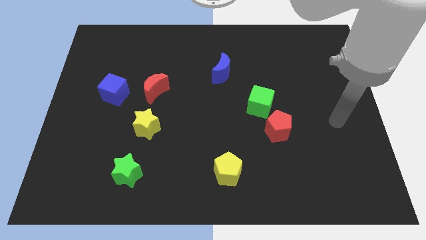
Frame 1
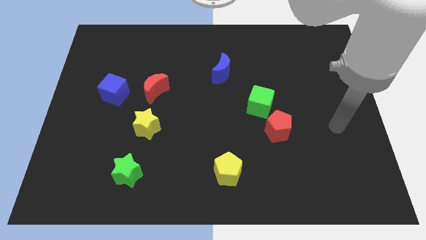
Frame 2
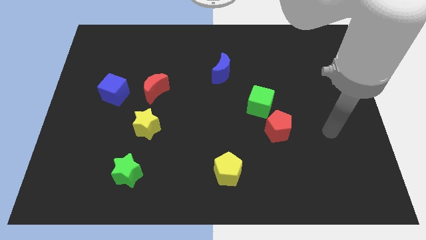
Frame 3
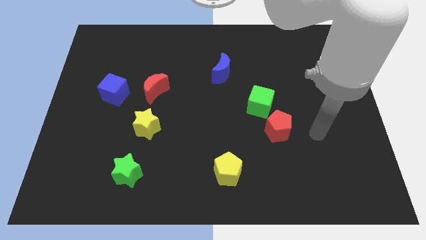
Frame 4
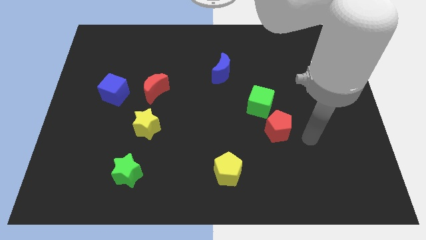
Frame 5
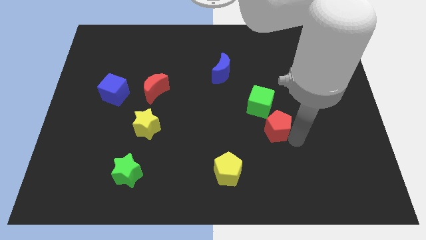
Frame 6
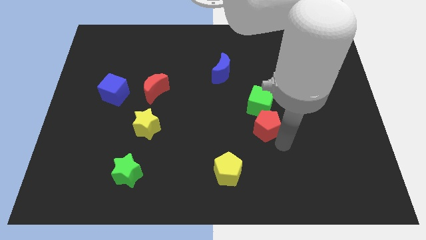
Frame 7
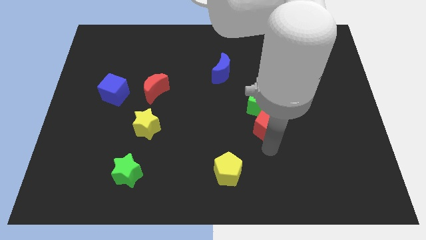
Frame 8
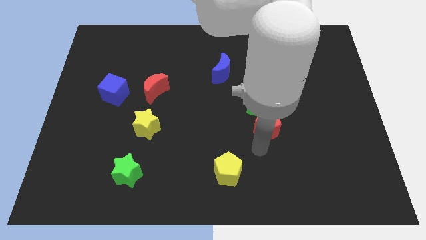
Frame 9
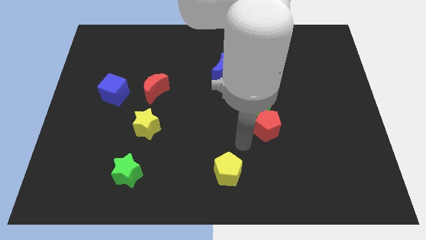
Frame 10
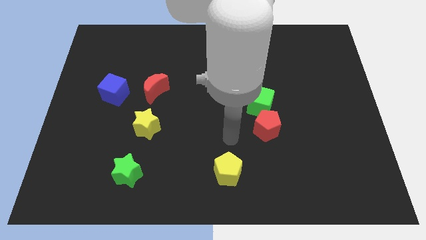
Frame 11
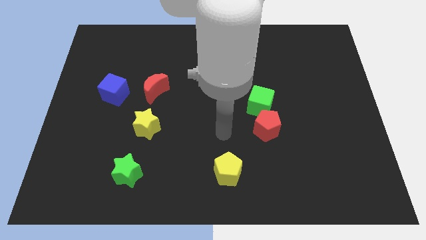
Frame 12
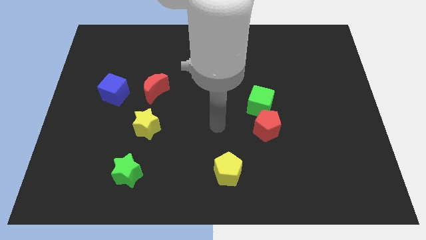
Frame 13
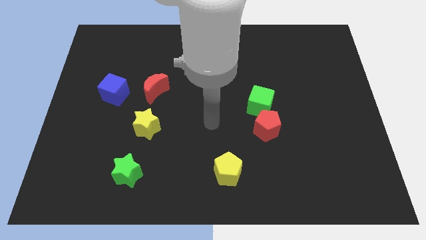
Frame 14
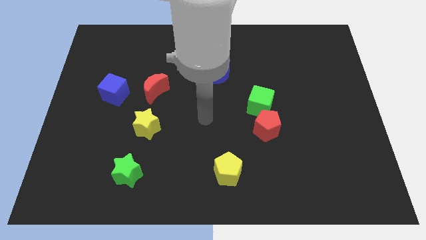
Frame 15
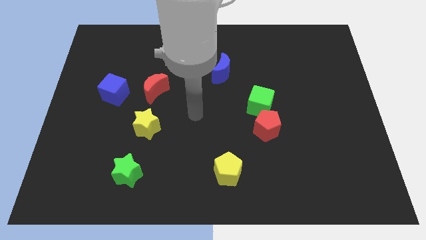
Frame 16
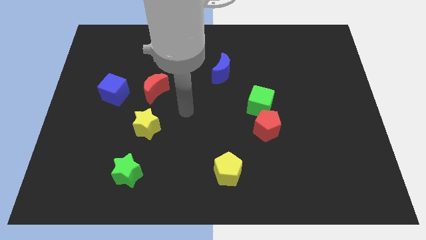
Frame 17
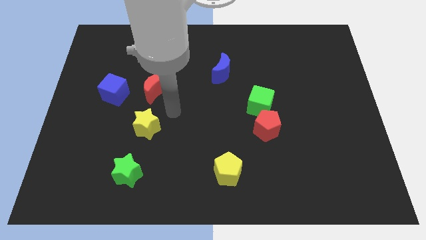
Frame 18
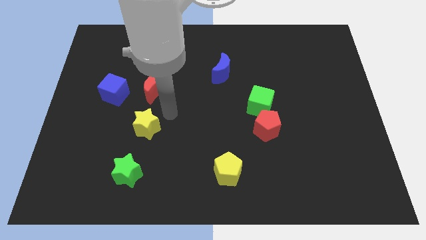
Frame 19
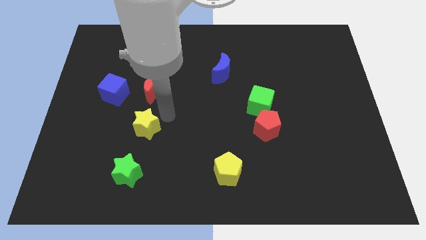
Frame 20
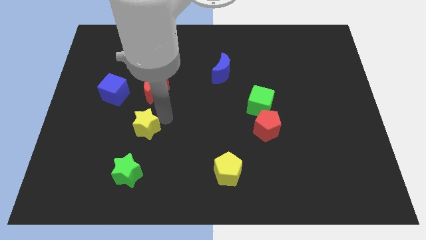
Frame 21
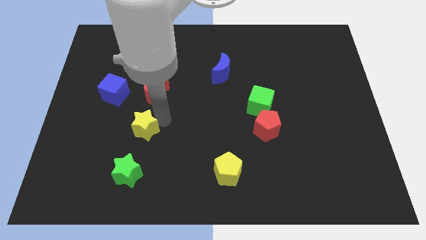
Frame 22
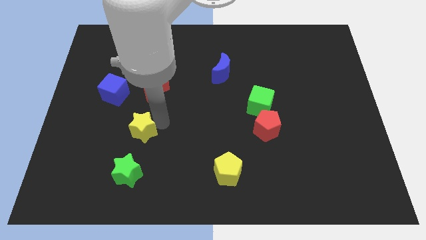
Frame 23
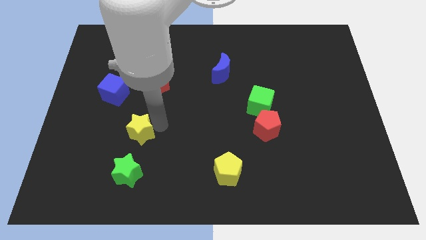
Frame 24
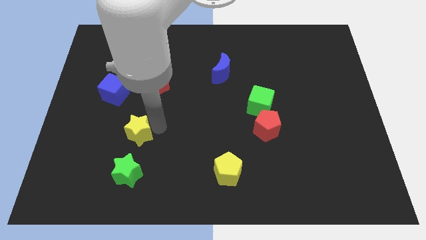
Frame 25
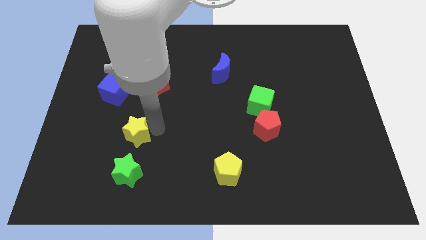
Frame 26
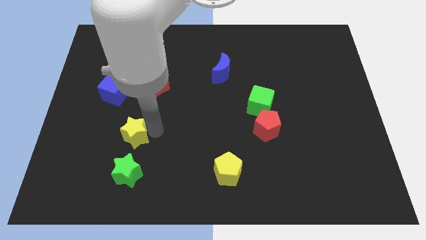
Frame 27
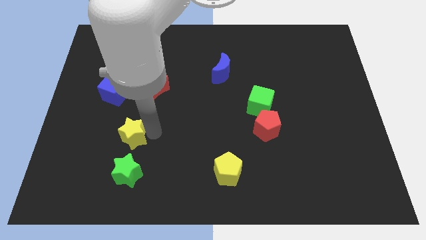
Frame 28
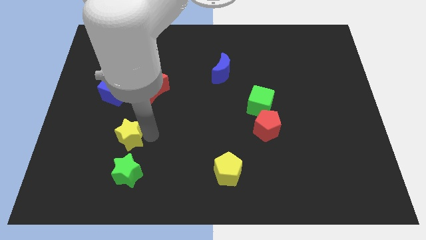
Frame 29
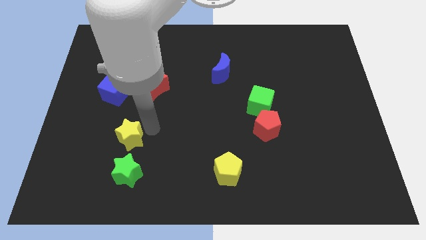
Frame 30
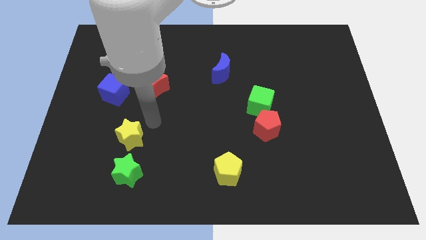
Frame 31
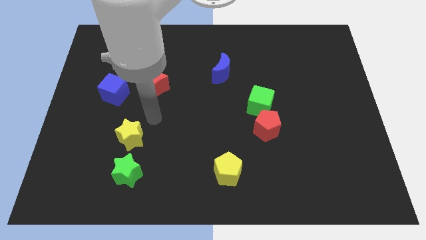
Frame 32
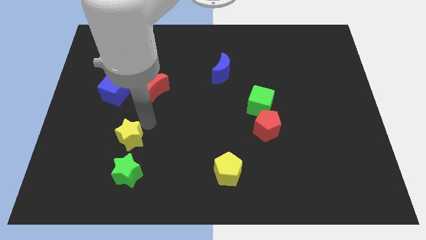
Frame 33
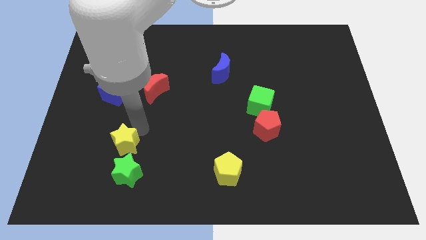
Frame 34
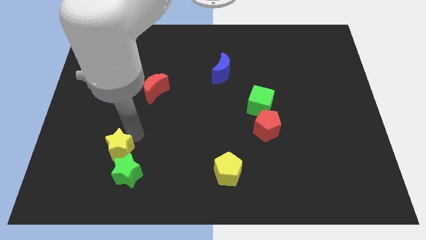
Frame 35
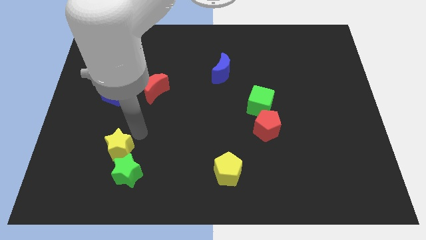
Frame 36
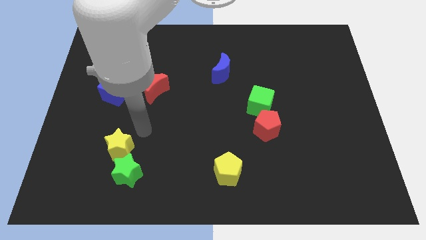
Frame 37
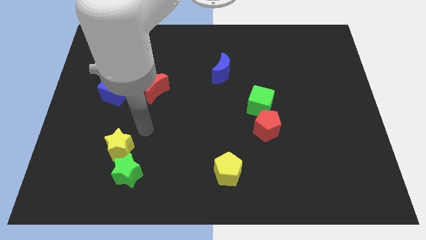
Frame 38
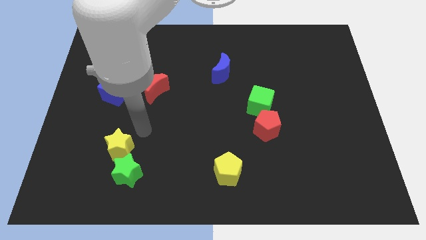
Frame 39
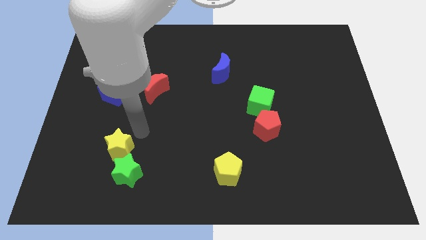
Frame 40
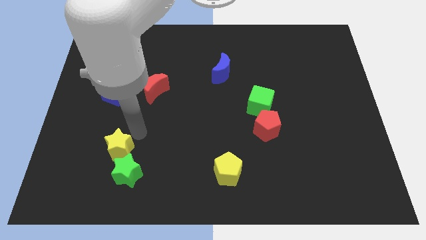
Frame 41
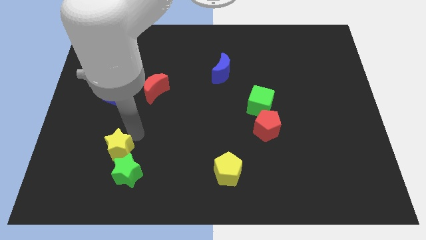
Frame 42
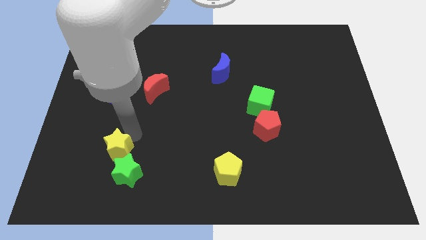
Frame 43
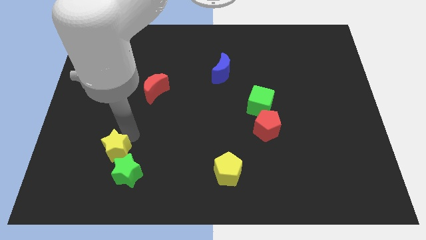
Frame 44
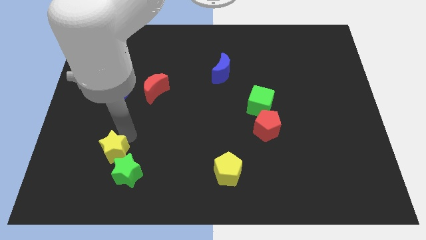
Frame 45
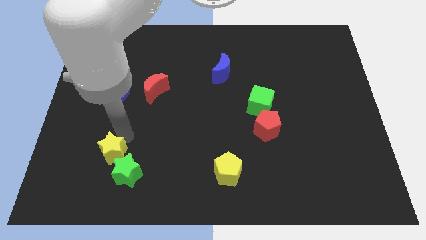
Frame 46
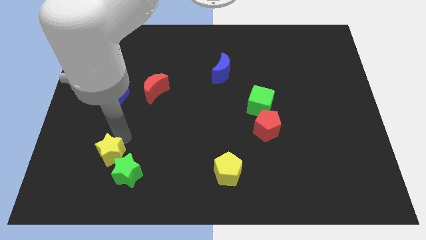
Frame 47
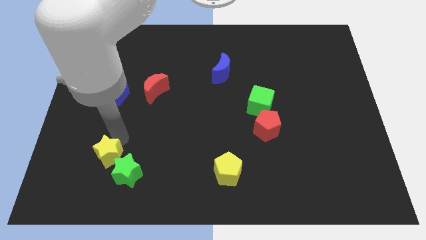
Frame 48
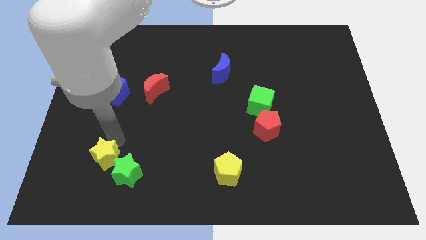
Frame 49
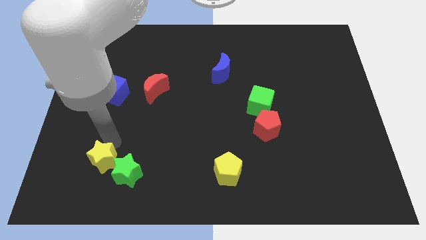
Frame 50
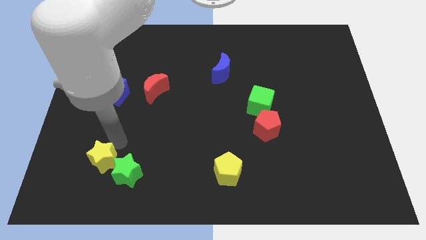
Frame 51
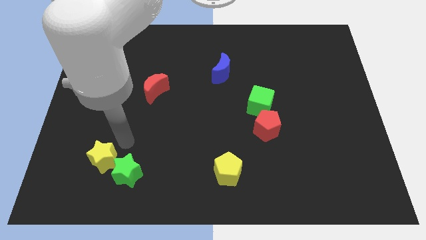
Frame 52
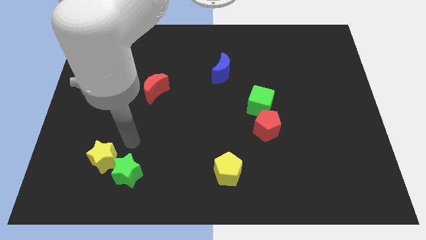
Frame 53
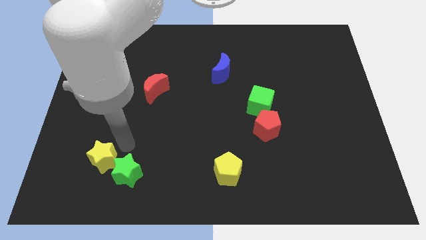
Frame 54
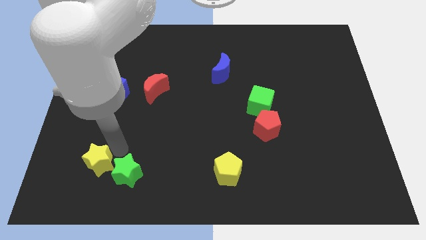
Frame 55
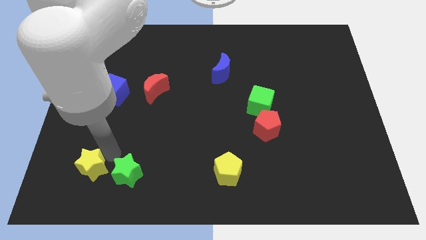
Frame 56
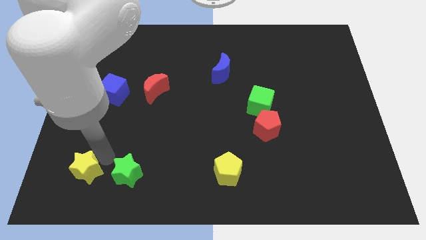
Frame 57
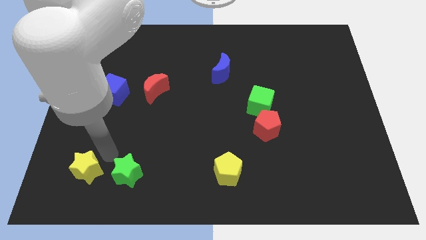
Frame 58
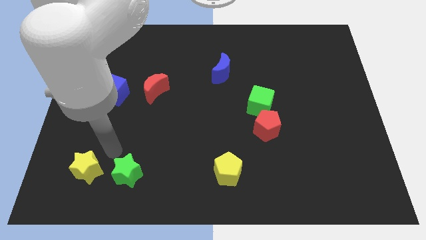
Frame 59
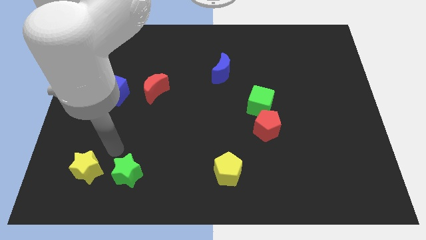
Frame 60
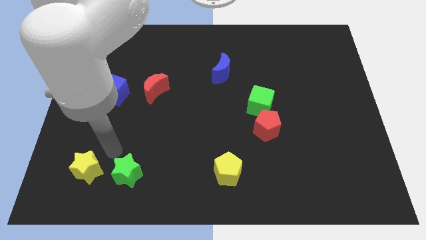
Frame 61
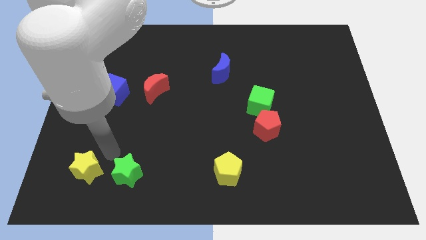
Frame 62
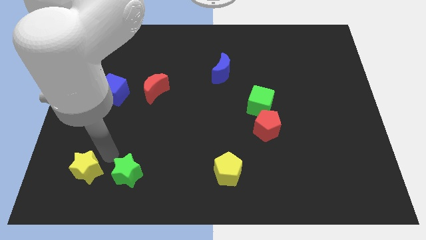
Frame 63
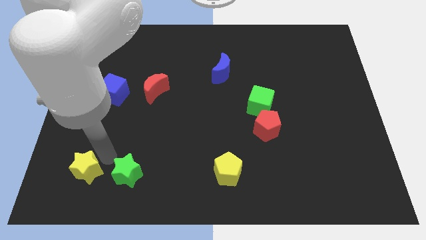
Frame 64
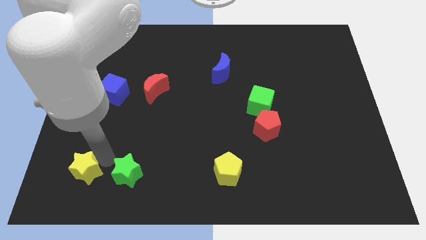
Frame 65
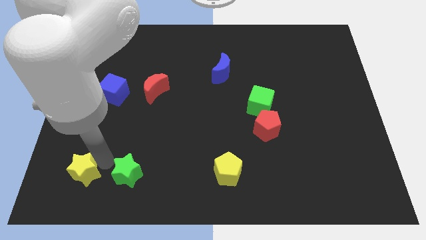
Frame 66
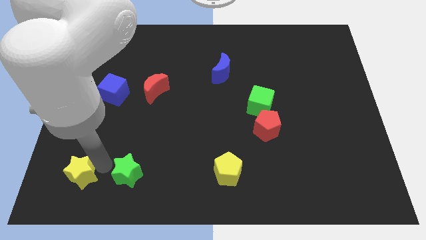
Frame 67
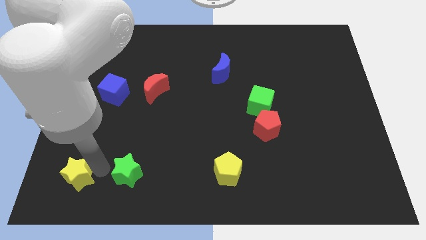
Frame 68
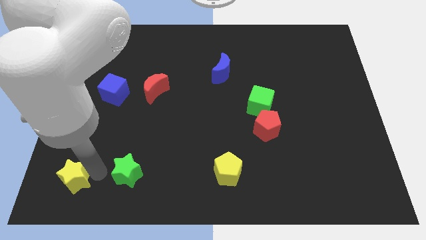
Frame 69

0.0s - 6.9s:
move the yellow star to the bottom left of the board
